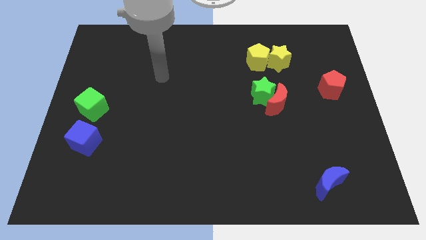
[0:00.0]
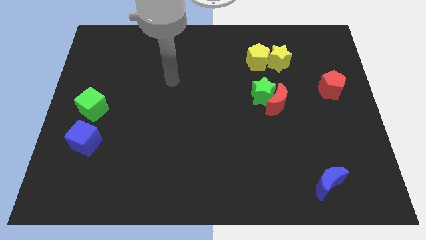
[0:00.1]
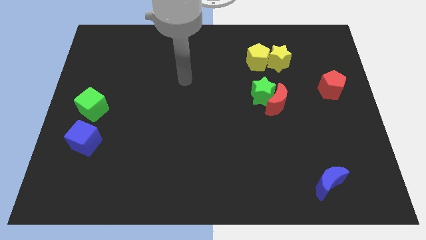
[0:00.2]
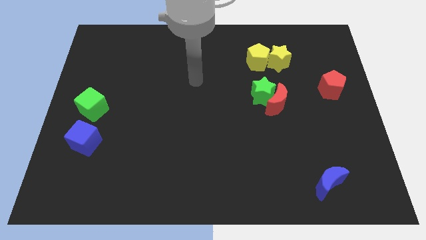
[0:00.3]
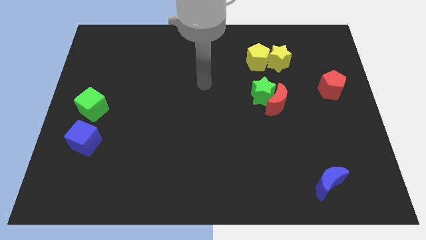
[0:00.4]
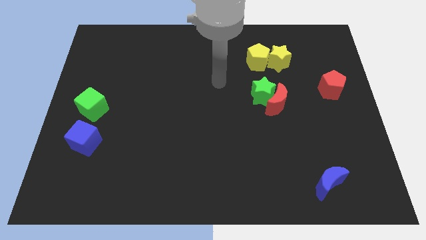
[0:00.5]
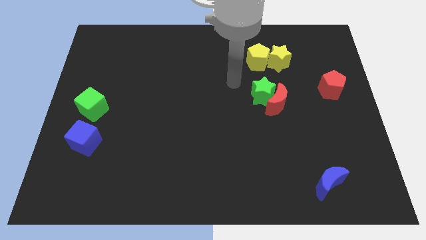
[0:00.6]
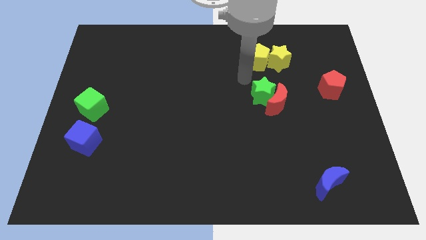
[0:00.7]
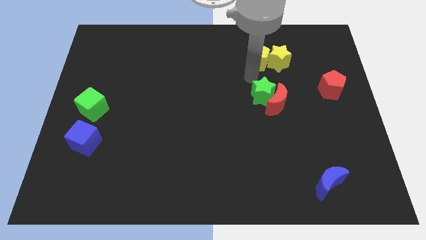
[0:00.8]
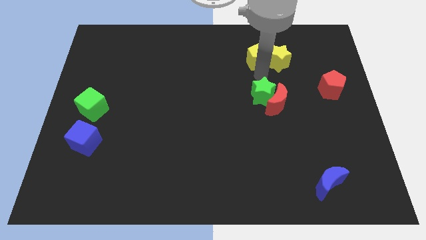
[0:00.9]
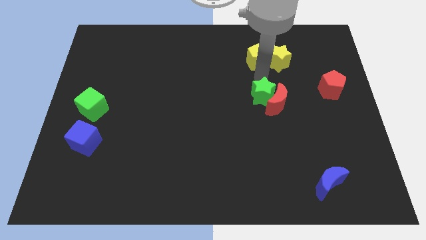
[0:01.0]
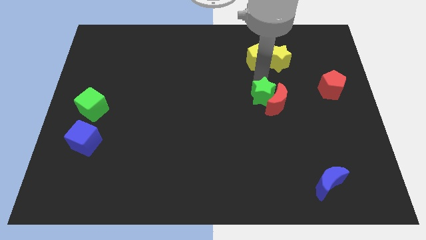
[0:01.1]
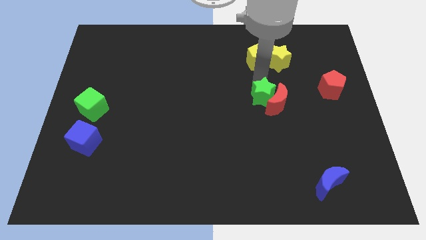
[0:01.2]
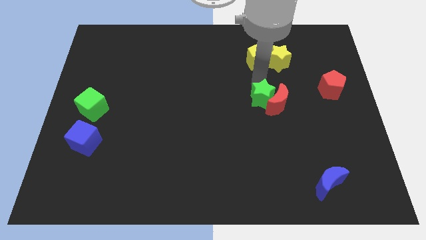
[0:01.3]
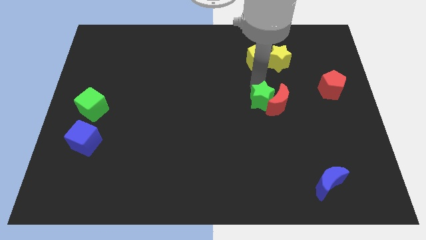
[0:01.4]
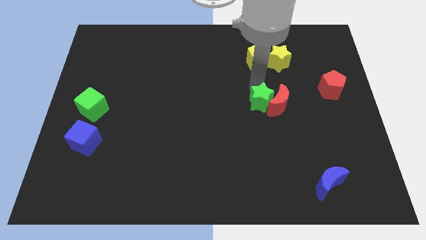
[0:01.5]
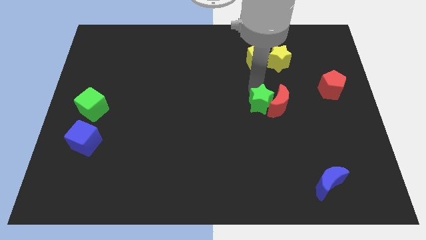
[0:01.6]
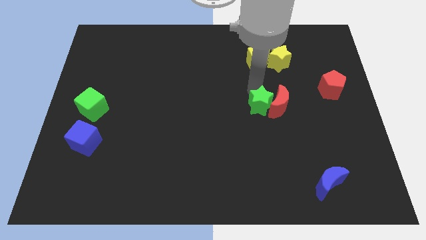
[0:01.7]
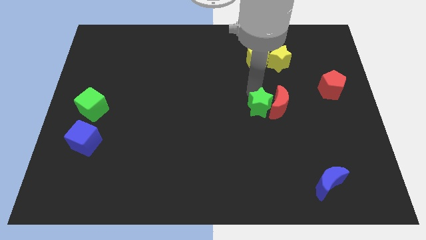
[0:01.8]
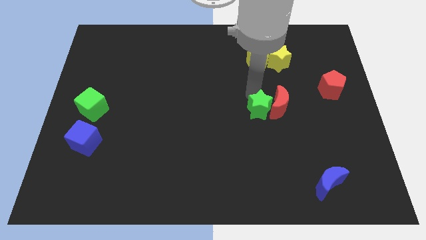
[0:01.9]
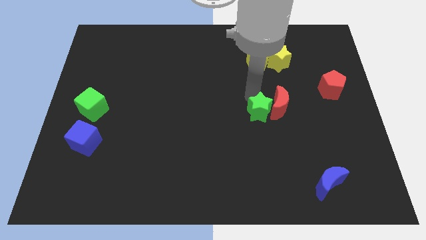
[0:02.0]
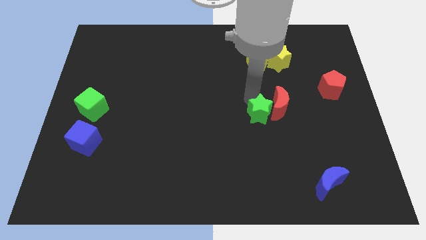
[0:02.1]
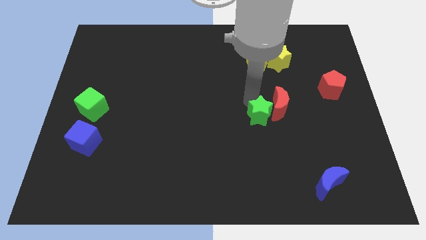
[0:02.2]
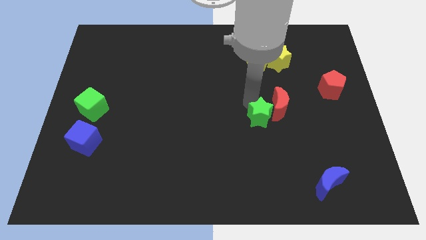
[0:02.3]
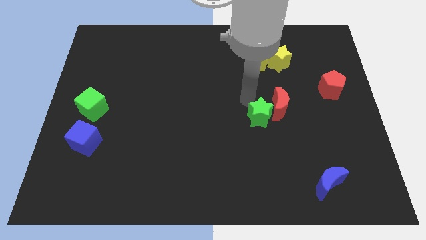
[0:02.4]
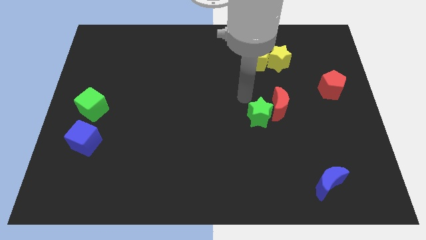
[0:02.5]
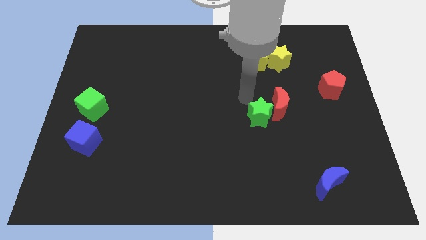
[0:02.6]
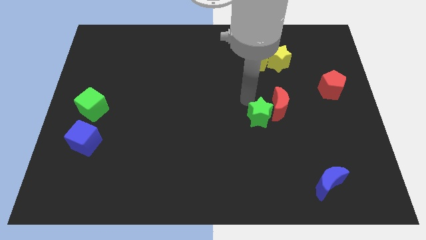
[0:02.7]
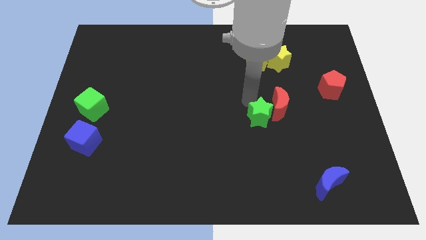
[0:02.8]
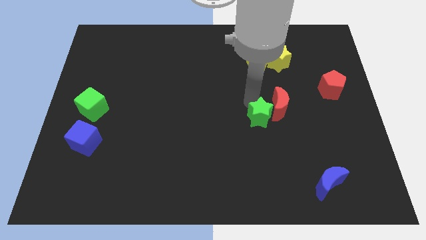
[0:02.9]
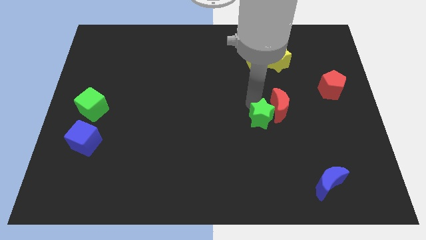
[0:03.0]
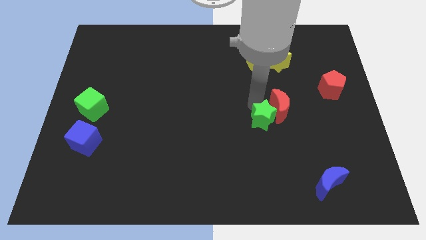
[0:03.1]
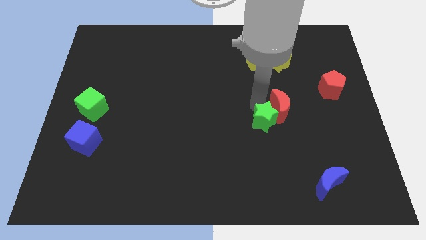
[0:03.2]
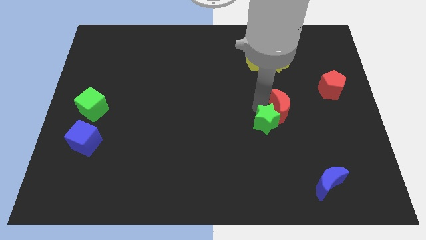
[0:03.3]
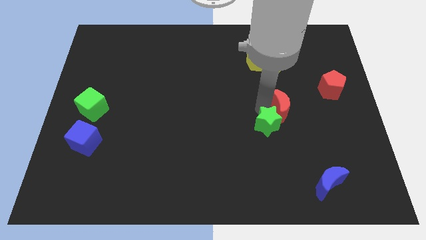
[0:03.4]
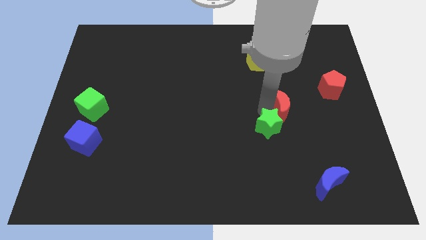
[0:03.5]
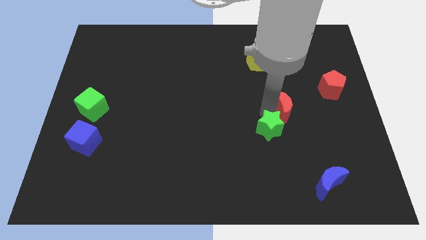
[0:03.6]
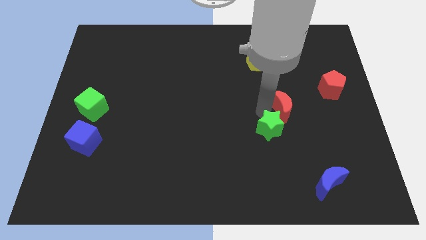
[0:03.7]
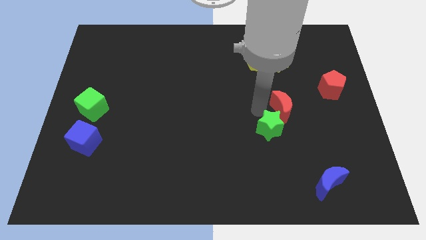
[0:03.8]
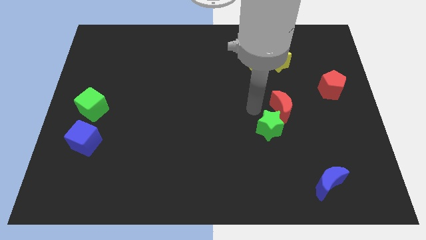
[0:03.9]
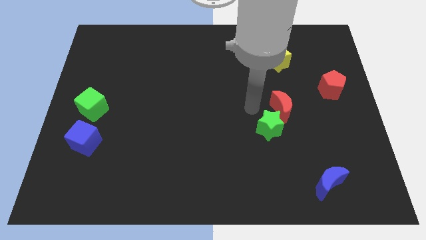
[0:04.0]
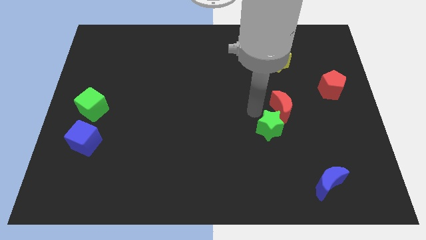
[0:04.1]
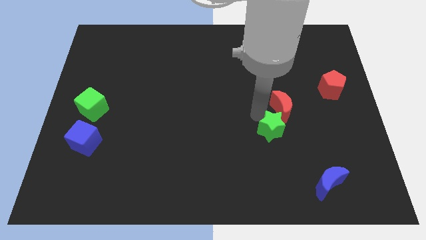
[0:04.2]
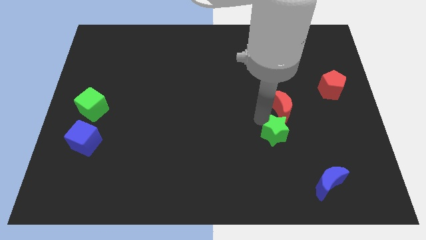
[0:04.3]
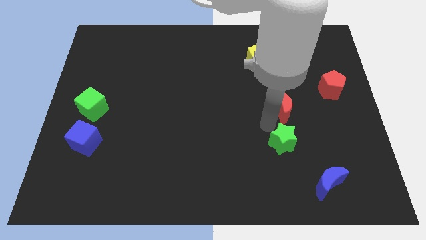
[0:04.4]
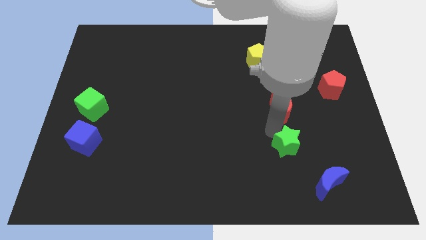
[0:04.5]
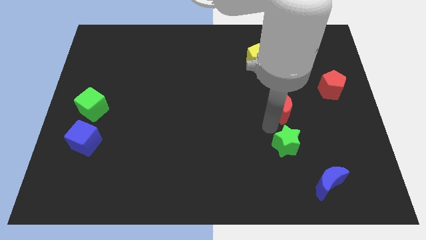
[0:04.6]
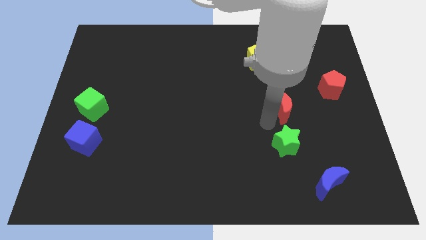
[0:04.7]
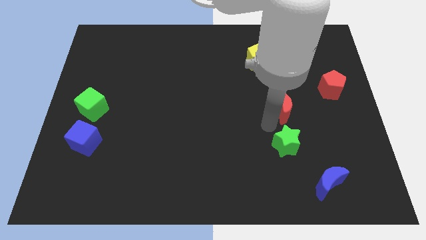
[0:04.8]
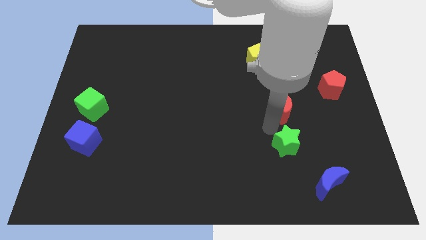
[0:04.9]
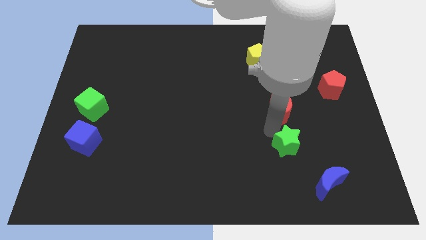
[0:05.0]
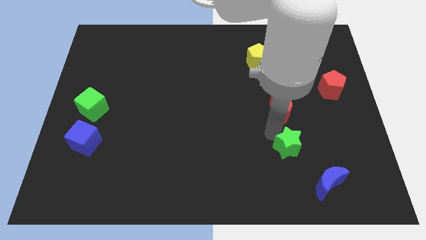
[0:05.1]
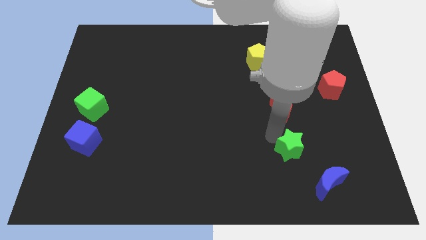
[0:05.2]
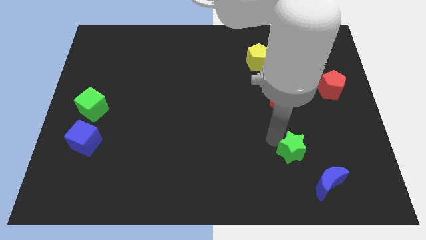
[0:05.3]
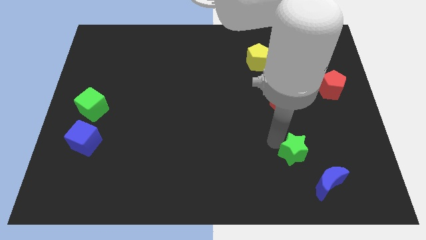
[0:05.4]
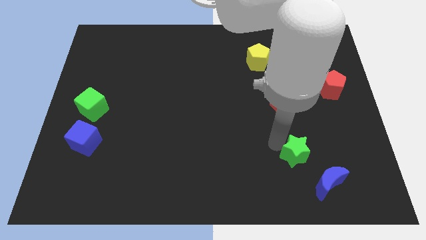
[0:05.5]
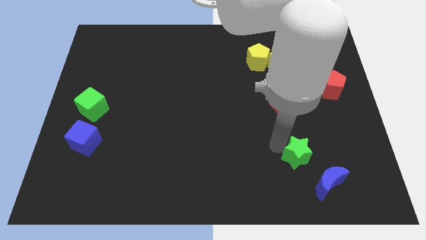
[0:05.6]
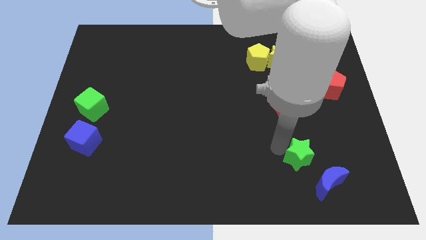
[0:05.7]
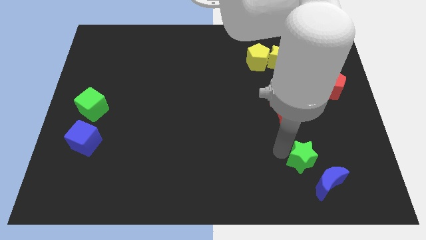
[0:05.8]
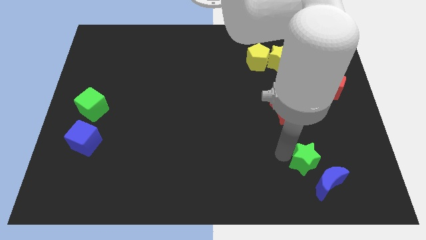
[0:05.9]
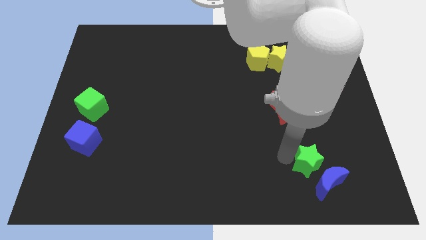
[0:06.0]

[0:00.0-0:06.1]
move the green star close to the blue moon

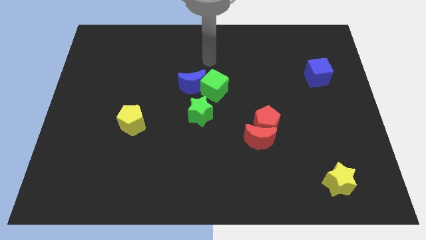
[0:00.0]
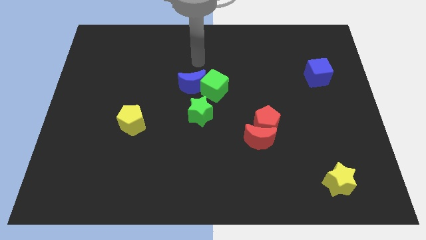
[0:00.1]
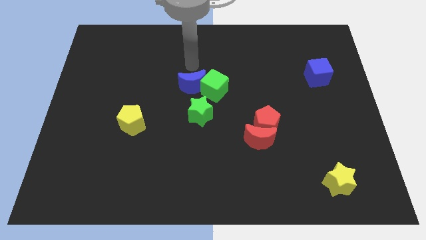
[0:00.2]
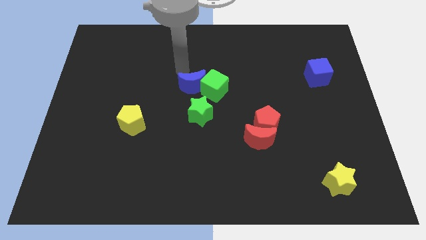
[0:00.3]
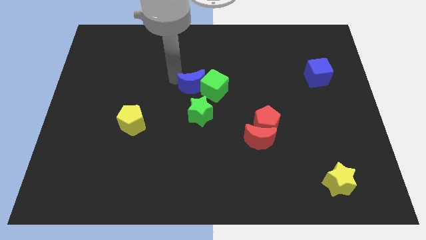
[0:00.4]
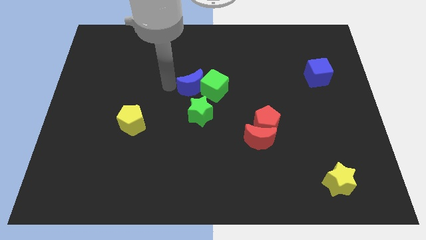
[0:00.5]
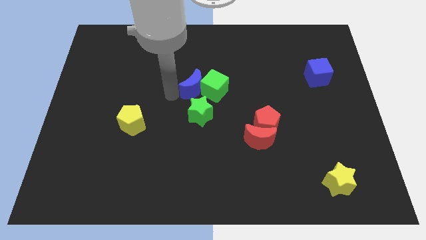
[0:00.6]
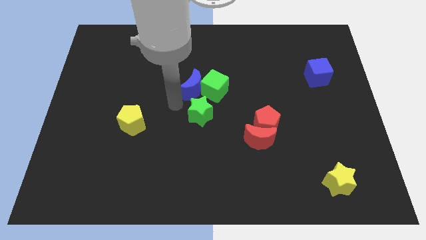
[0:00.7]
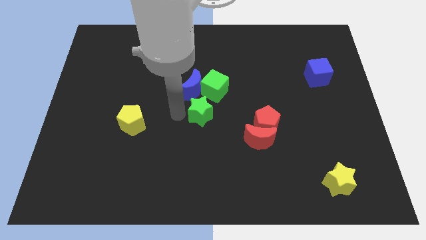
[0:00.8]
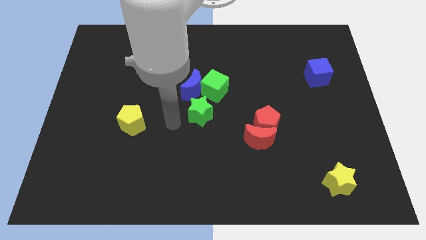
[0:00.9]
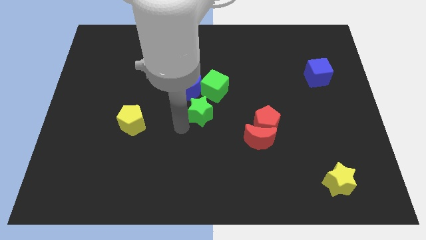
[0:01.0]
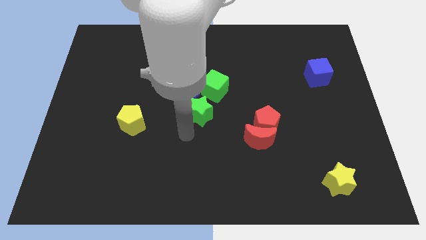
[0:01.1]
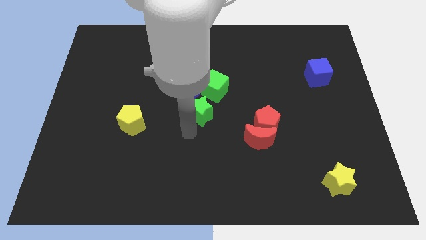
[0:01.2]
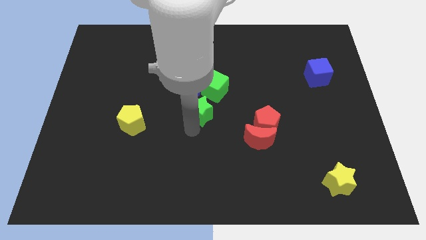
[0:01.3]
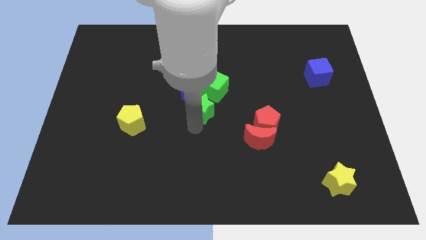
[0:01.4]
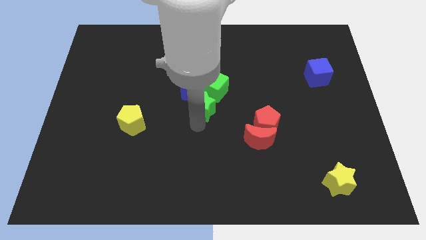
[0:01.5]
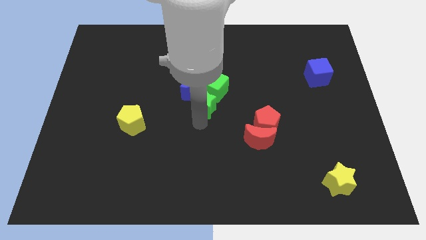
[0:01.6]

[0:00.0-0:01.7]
put the green star close to the green cube
